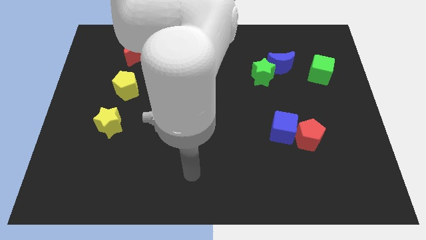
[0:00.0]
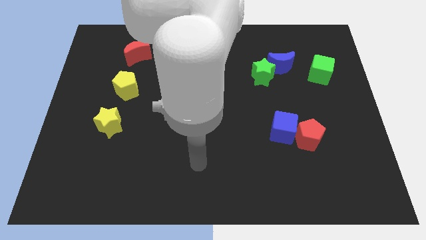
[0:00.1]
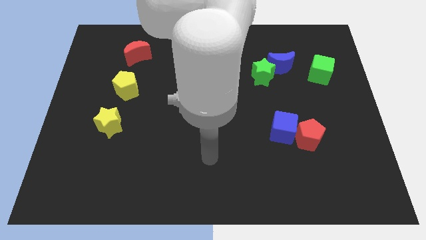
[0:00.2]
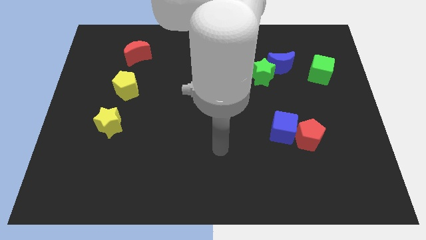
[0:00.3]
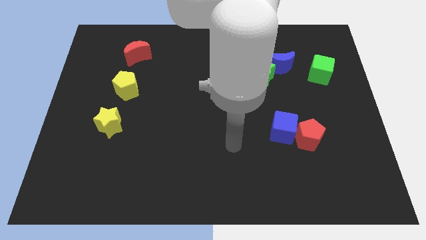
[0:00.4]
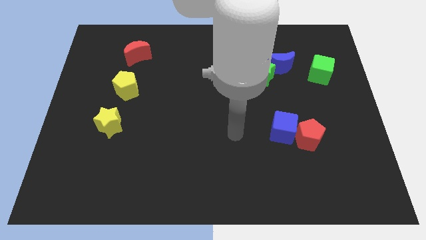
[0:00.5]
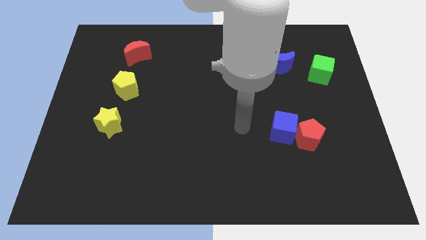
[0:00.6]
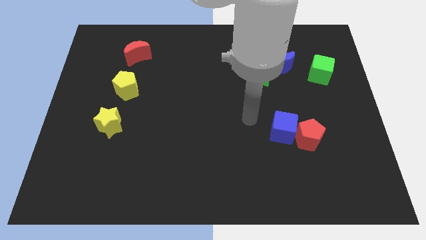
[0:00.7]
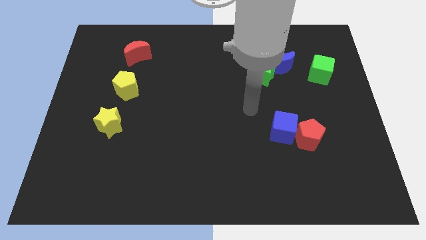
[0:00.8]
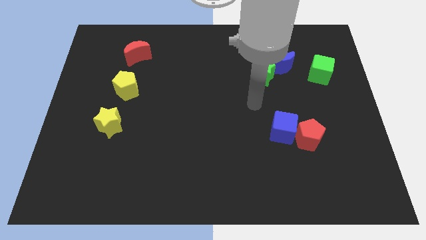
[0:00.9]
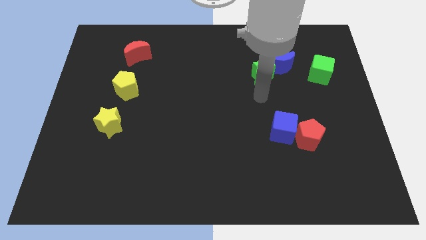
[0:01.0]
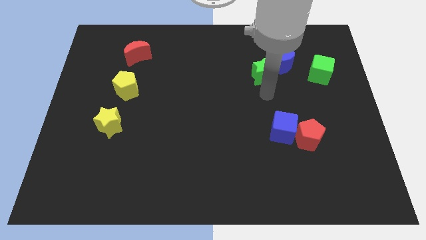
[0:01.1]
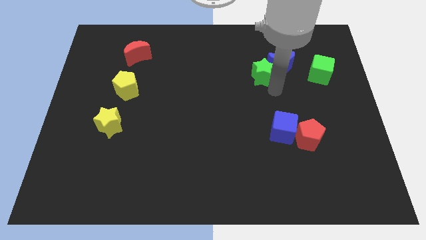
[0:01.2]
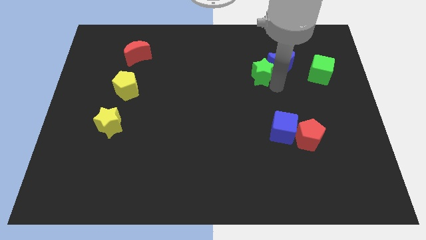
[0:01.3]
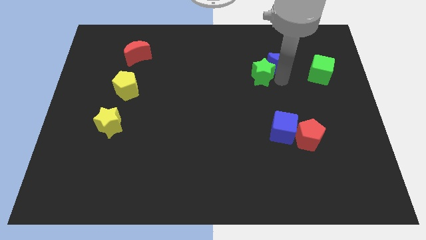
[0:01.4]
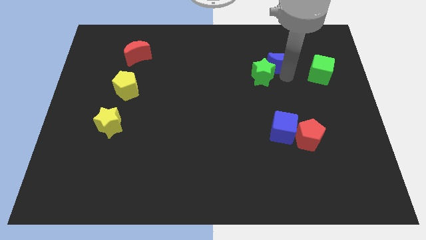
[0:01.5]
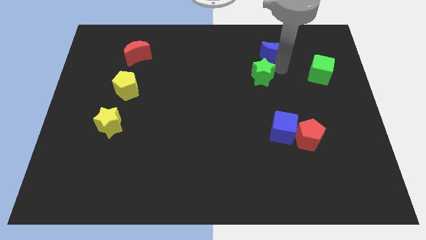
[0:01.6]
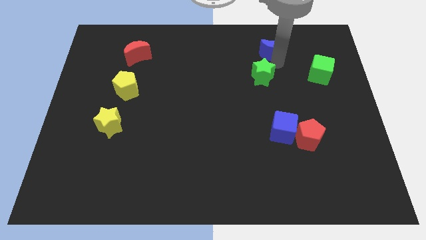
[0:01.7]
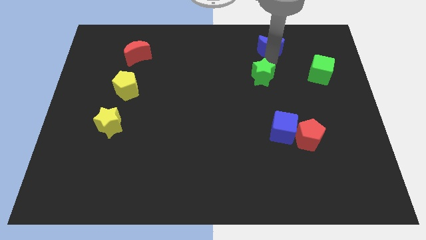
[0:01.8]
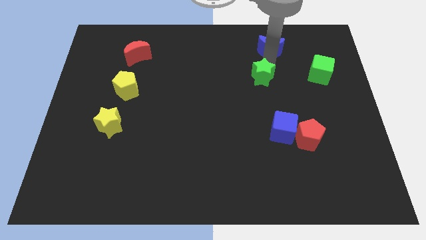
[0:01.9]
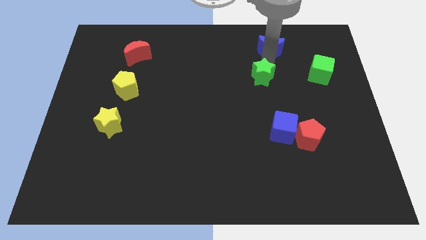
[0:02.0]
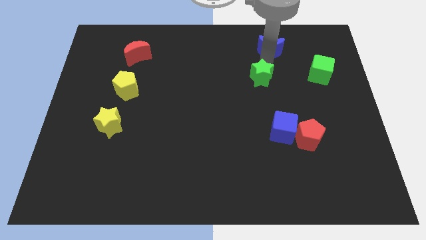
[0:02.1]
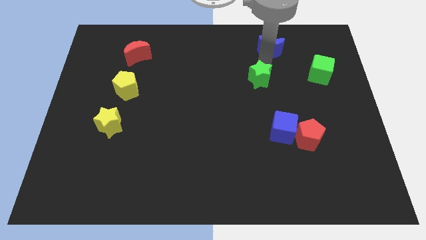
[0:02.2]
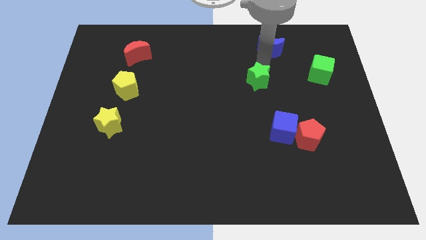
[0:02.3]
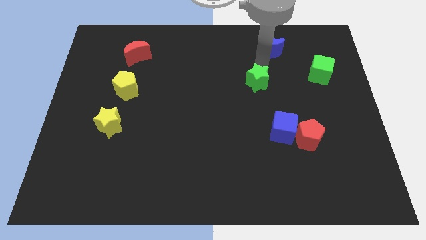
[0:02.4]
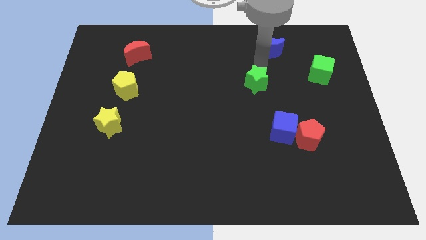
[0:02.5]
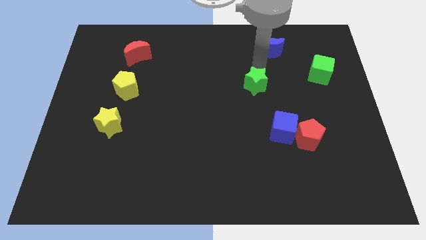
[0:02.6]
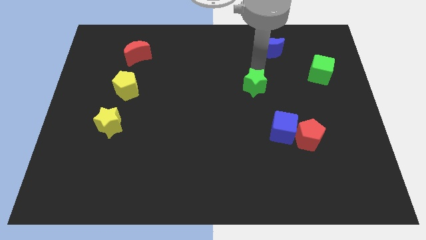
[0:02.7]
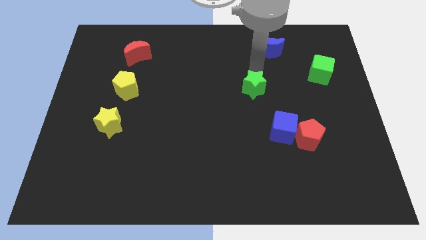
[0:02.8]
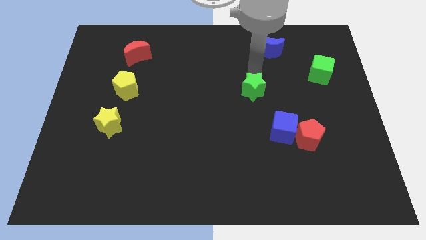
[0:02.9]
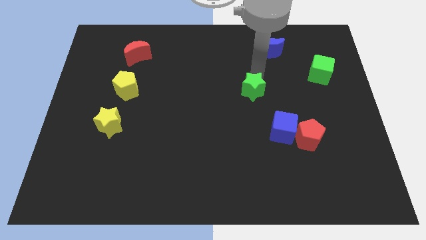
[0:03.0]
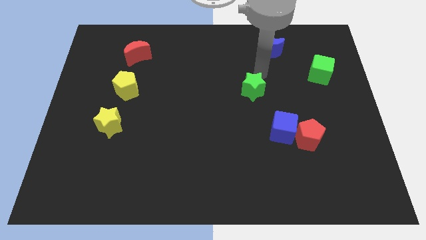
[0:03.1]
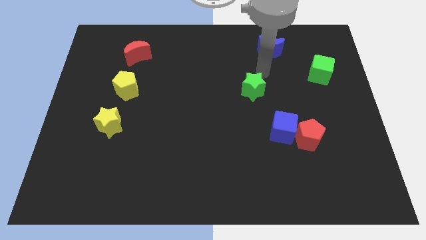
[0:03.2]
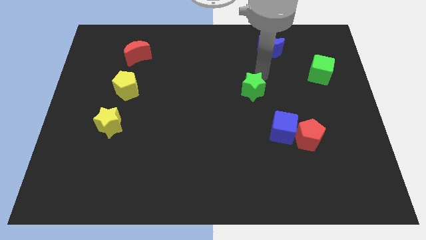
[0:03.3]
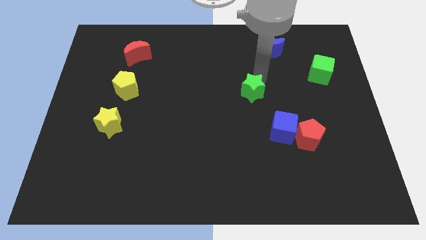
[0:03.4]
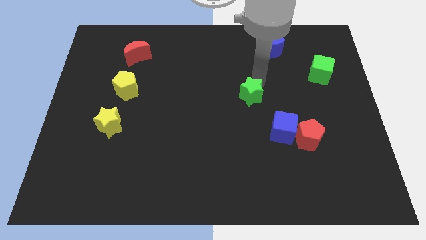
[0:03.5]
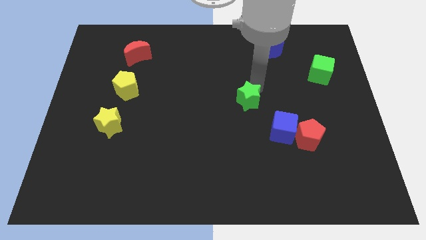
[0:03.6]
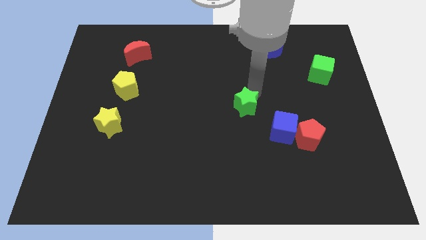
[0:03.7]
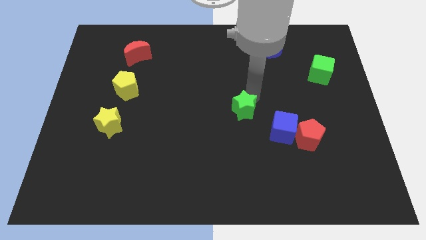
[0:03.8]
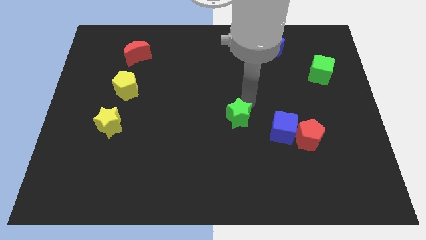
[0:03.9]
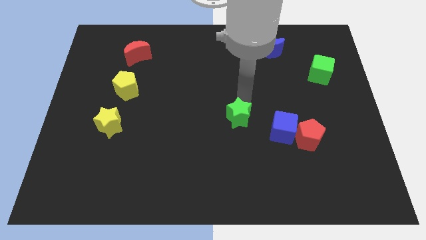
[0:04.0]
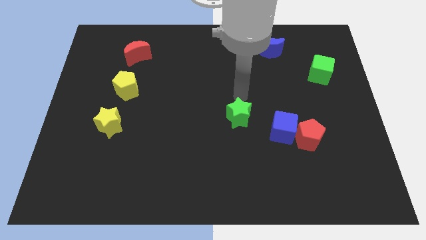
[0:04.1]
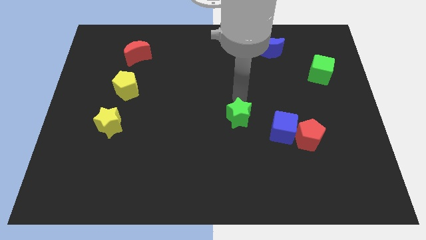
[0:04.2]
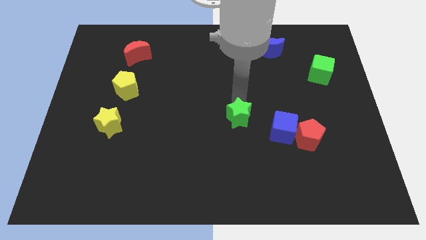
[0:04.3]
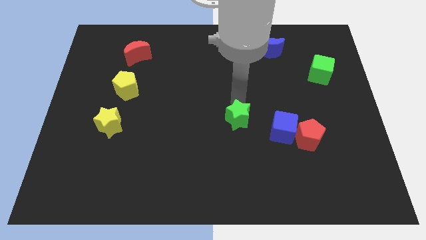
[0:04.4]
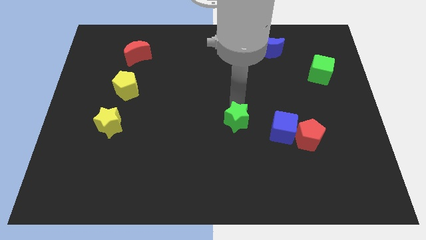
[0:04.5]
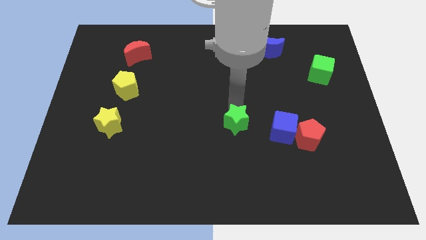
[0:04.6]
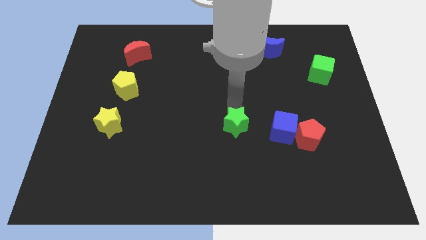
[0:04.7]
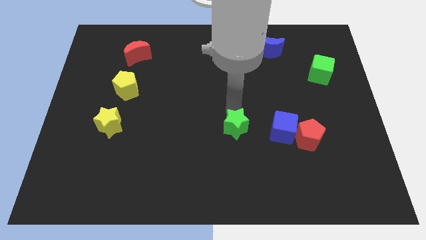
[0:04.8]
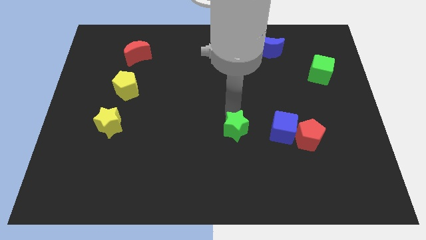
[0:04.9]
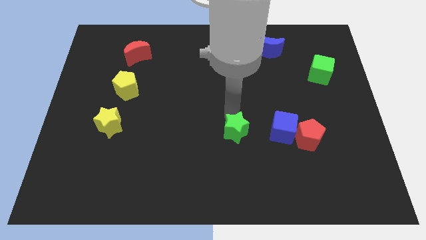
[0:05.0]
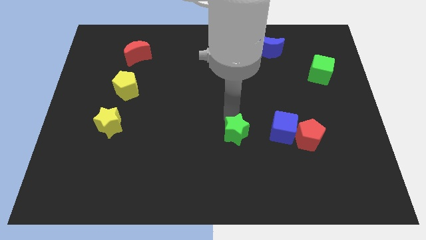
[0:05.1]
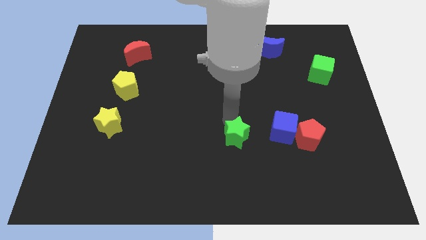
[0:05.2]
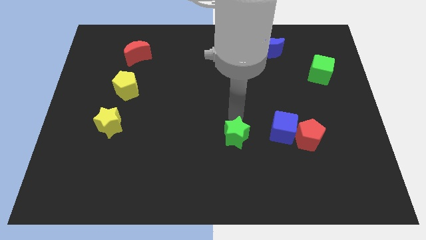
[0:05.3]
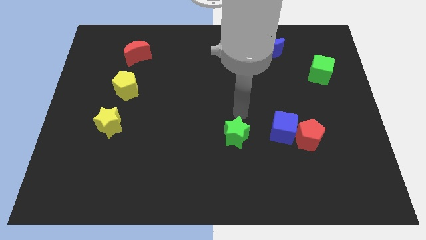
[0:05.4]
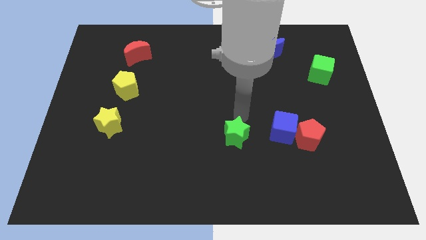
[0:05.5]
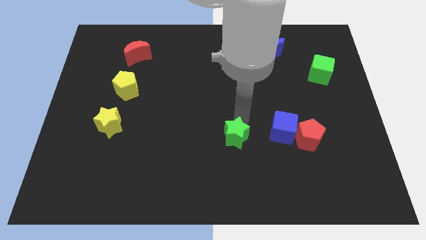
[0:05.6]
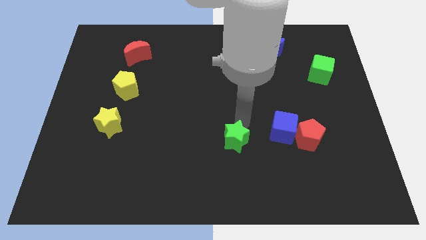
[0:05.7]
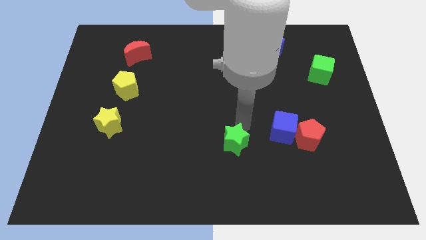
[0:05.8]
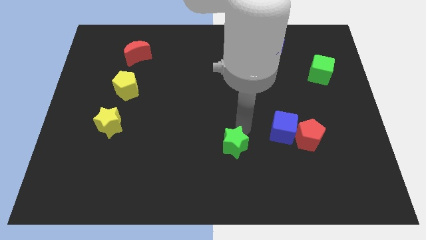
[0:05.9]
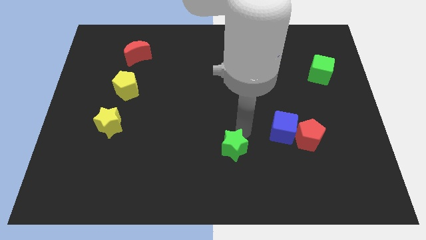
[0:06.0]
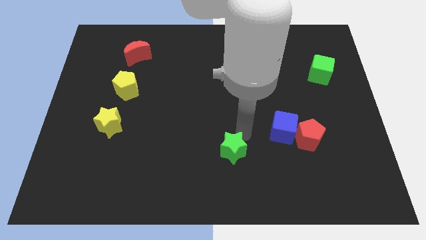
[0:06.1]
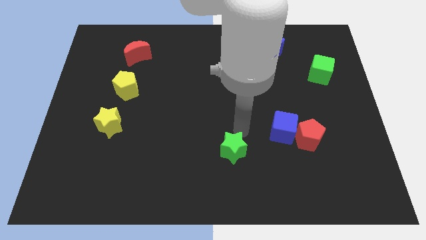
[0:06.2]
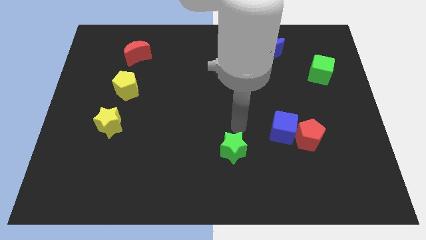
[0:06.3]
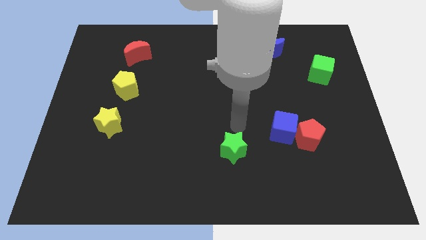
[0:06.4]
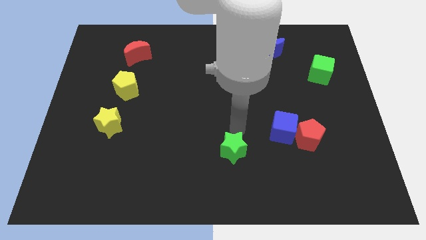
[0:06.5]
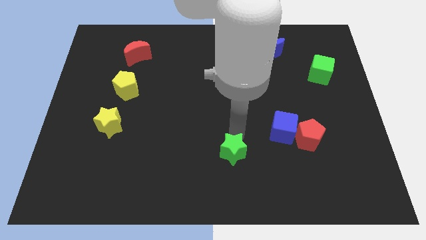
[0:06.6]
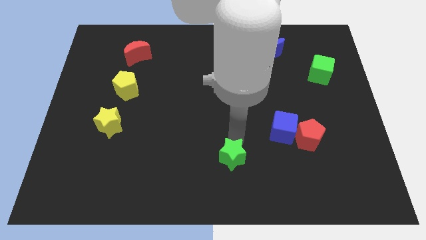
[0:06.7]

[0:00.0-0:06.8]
push the green star to the bottom side
